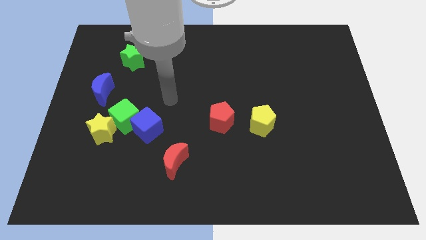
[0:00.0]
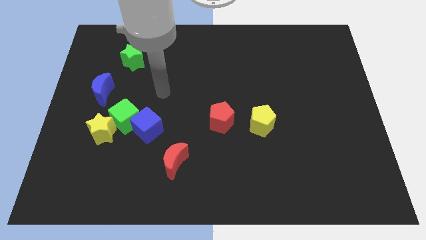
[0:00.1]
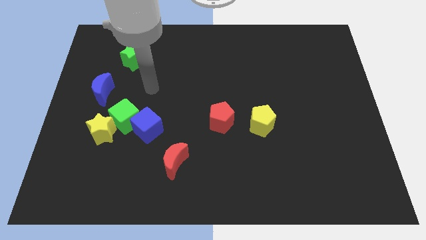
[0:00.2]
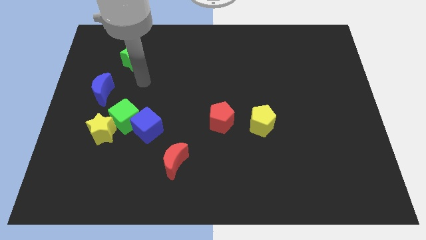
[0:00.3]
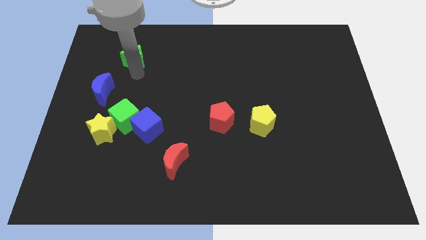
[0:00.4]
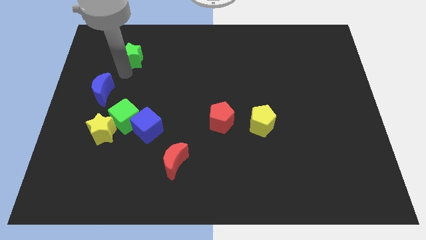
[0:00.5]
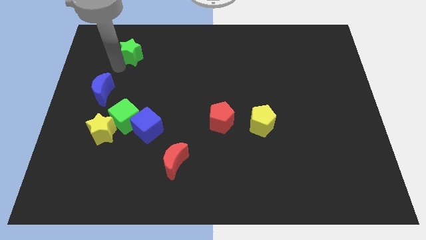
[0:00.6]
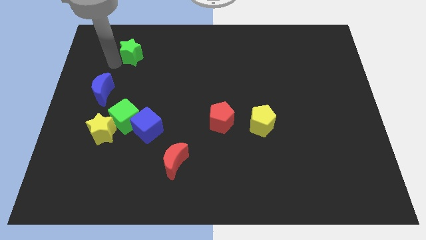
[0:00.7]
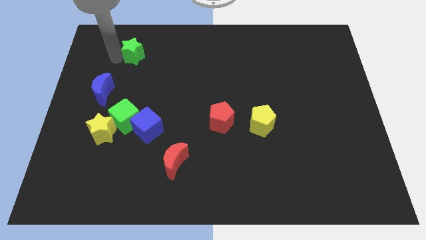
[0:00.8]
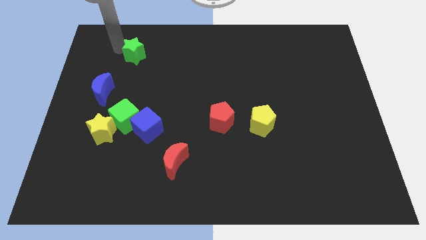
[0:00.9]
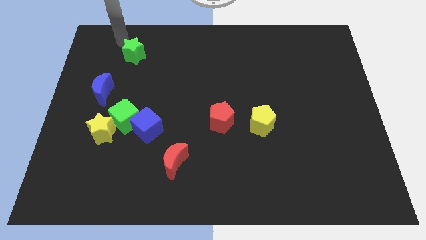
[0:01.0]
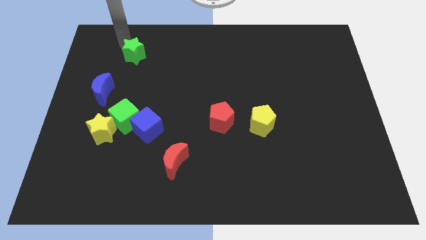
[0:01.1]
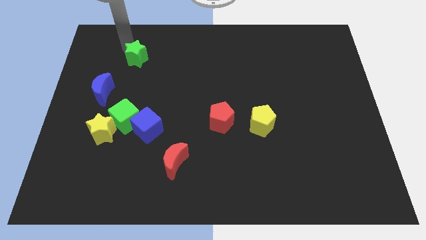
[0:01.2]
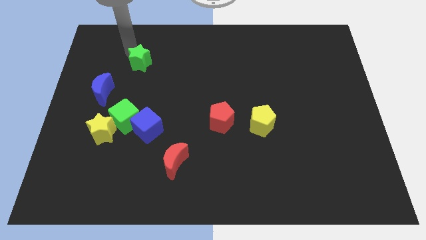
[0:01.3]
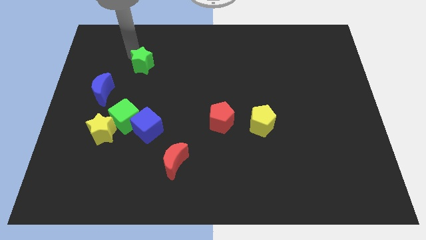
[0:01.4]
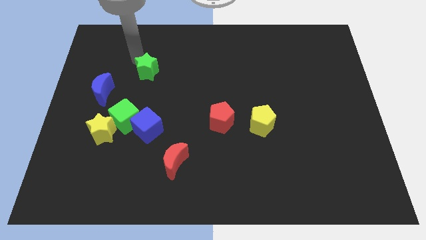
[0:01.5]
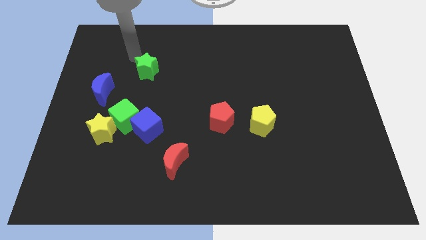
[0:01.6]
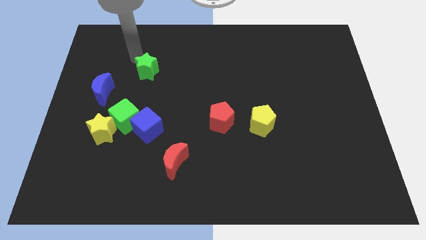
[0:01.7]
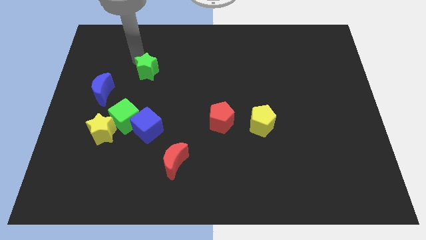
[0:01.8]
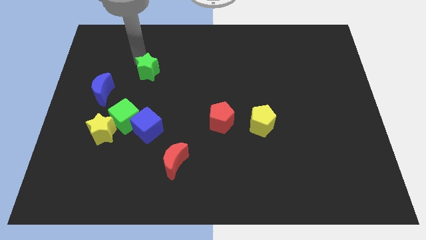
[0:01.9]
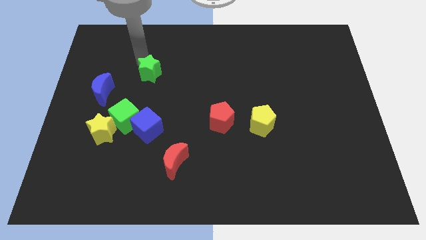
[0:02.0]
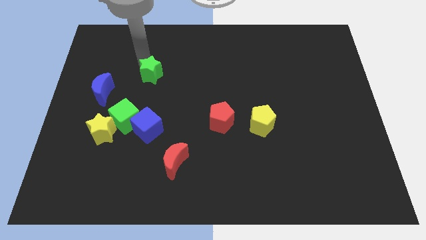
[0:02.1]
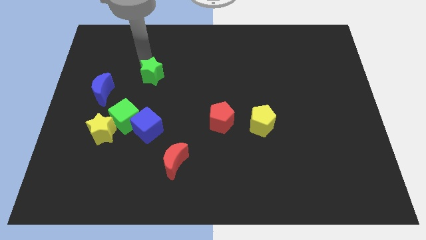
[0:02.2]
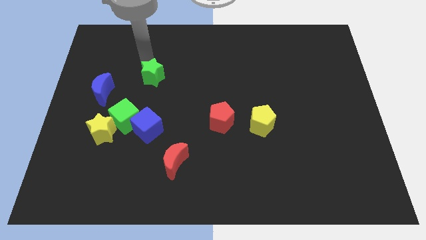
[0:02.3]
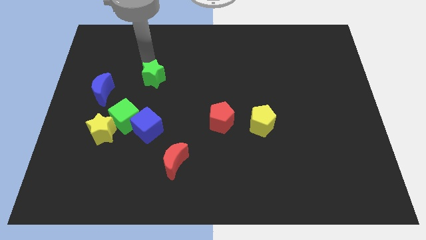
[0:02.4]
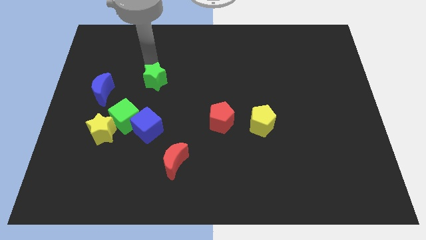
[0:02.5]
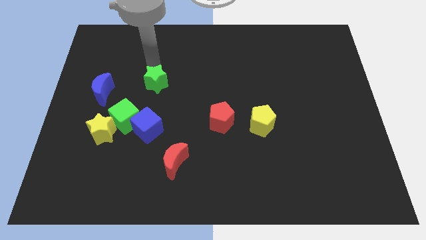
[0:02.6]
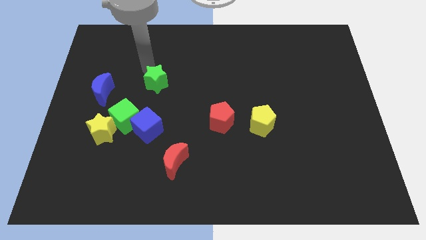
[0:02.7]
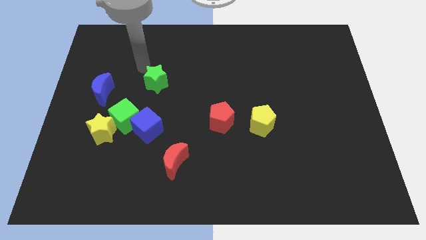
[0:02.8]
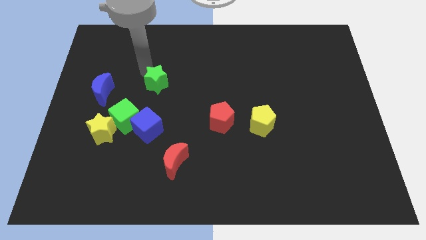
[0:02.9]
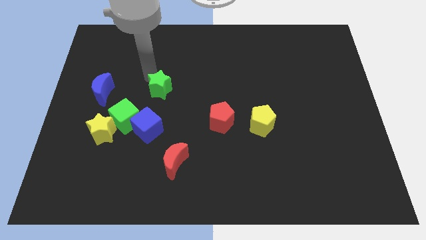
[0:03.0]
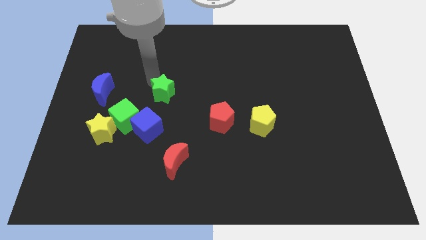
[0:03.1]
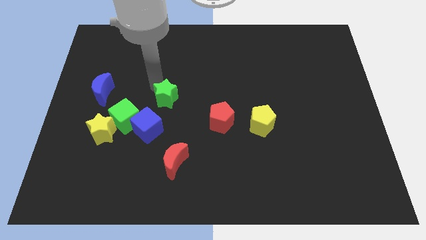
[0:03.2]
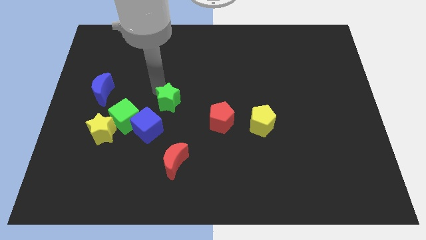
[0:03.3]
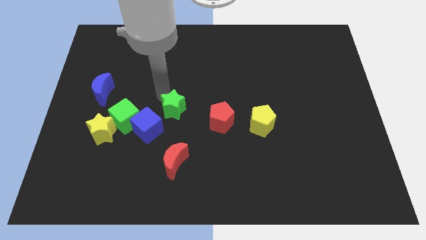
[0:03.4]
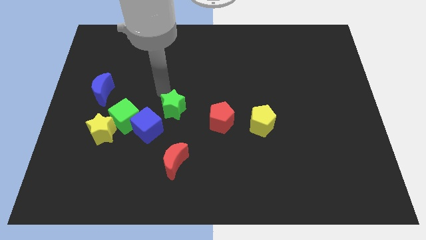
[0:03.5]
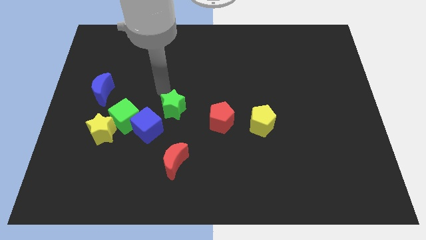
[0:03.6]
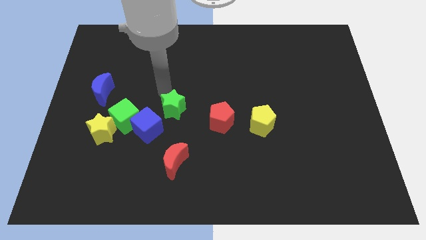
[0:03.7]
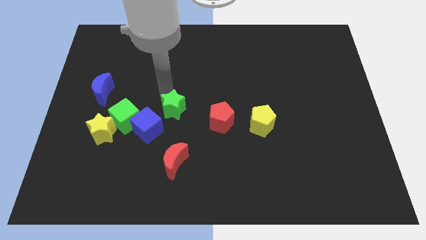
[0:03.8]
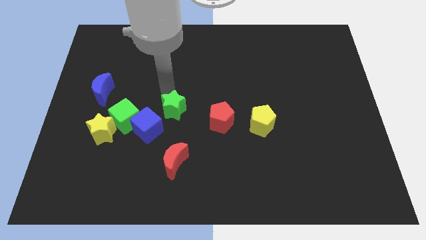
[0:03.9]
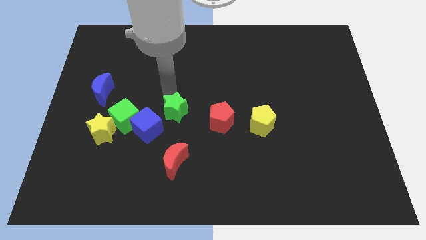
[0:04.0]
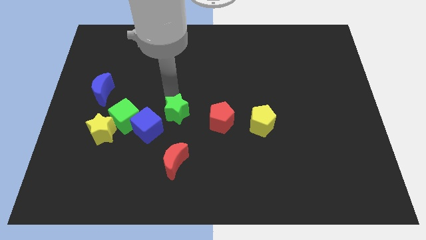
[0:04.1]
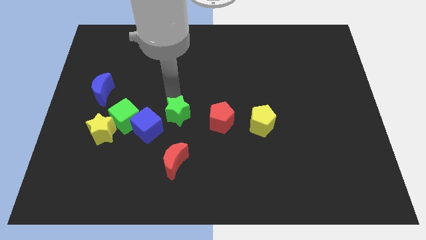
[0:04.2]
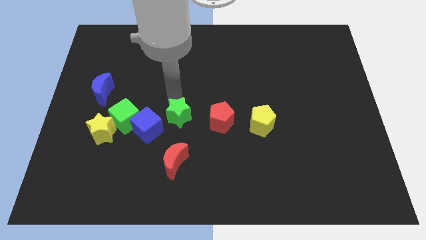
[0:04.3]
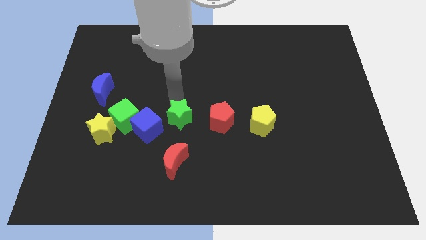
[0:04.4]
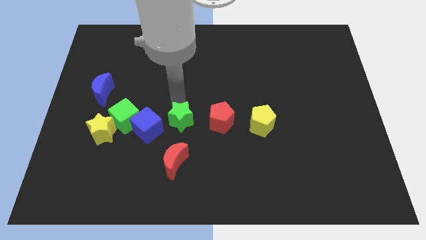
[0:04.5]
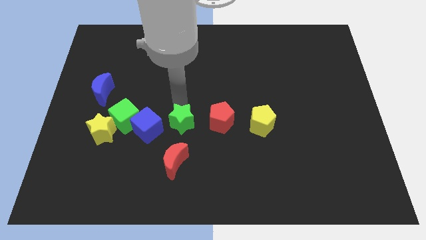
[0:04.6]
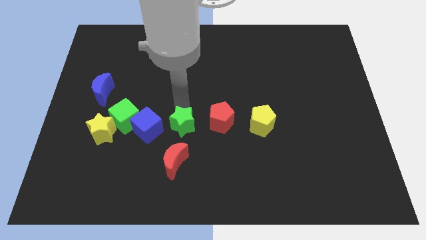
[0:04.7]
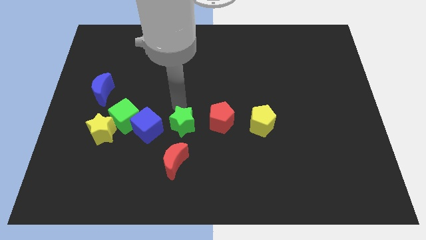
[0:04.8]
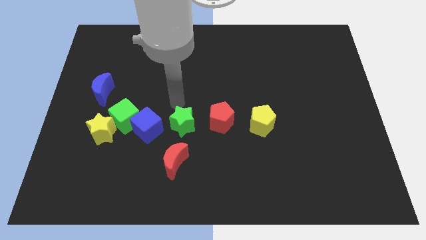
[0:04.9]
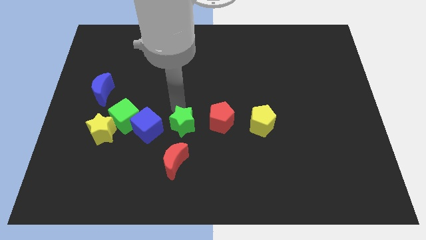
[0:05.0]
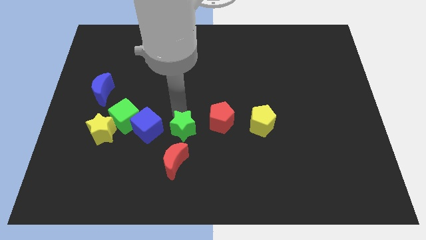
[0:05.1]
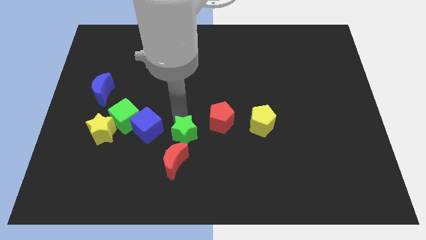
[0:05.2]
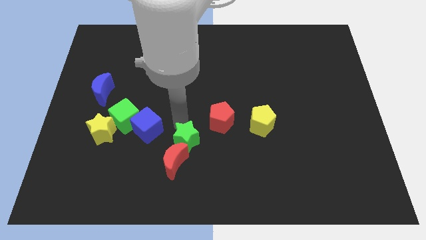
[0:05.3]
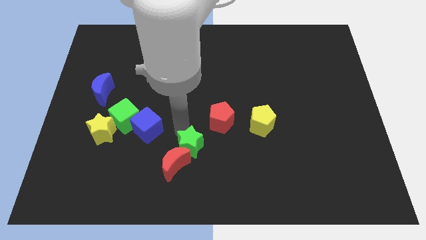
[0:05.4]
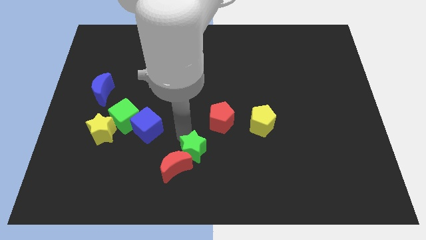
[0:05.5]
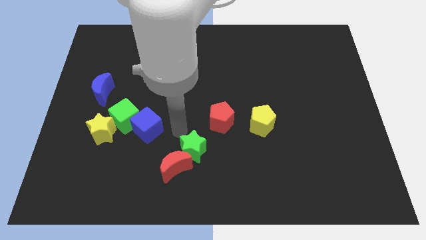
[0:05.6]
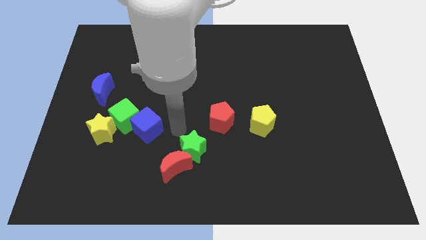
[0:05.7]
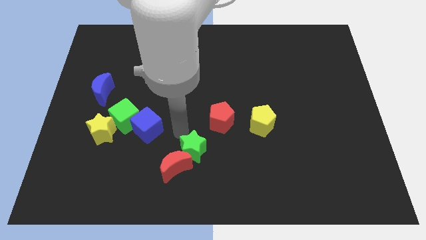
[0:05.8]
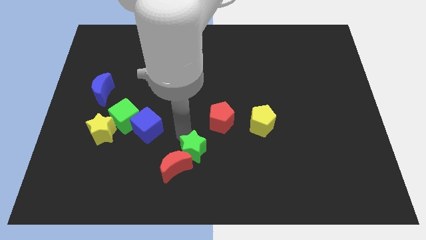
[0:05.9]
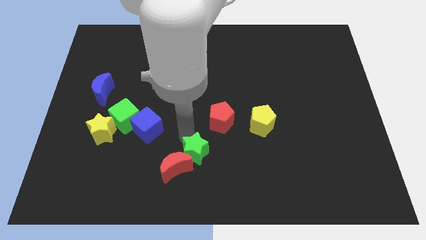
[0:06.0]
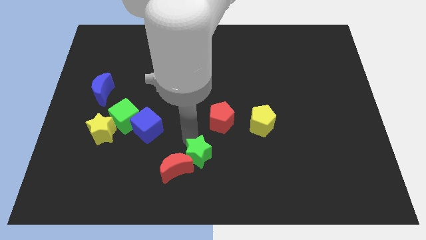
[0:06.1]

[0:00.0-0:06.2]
move the green star to the bottom side
